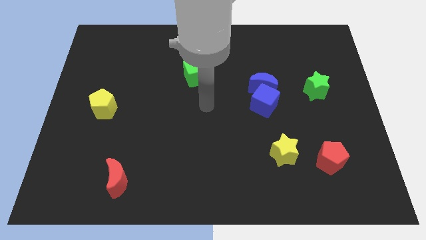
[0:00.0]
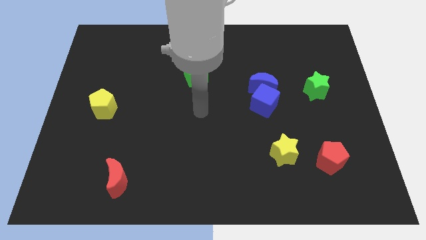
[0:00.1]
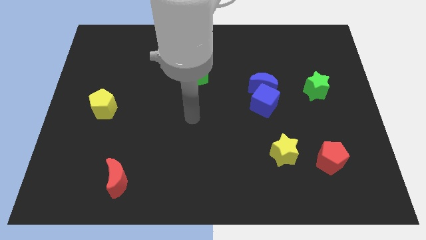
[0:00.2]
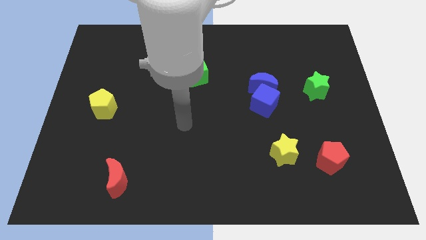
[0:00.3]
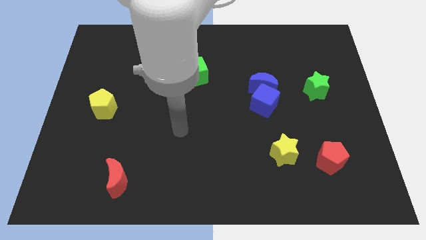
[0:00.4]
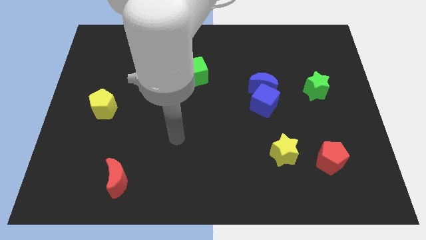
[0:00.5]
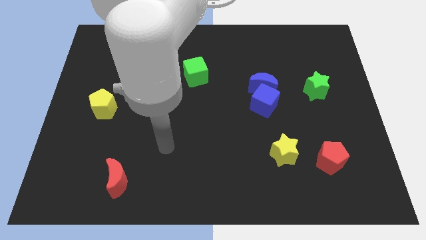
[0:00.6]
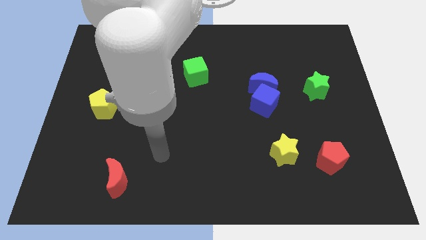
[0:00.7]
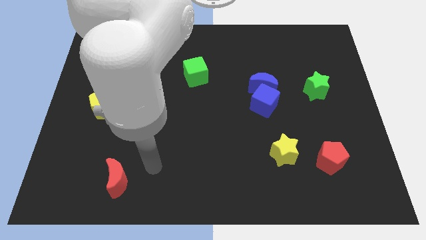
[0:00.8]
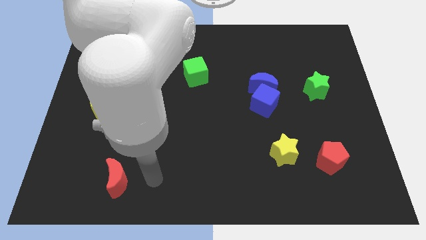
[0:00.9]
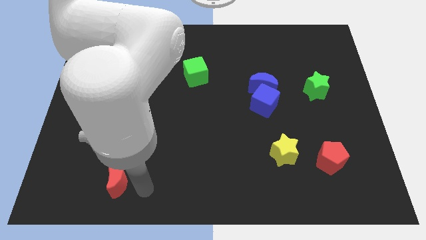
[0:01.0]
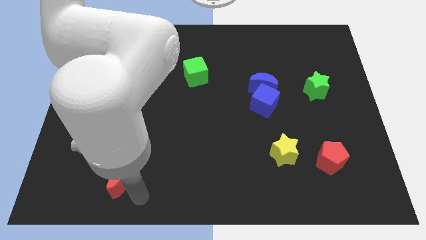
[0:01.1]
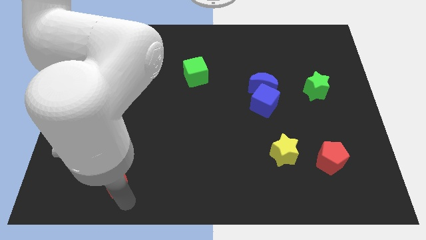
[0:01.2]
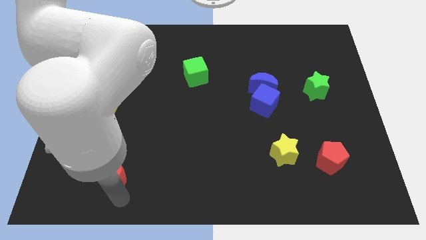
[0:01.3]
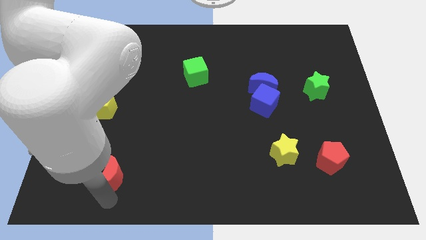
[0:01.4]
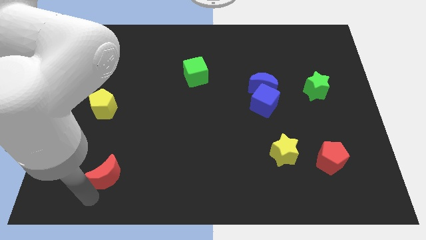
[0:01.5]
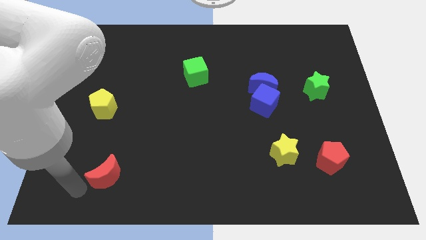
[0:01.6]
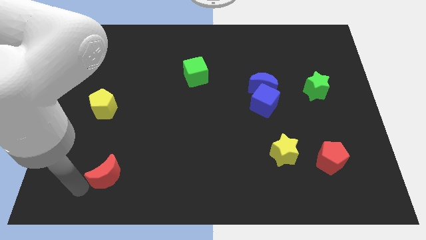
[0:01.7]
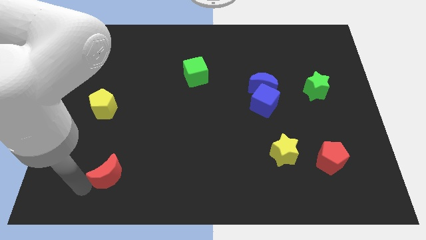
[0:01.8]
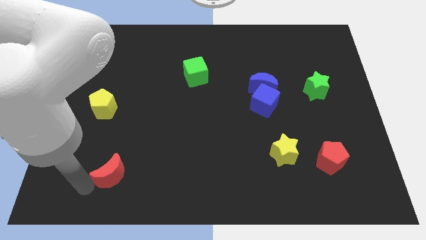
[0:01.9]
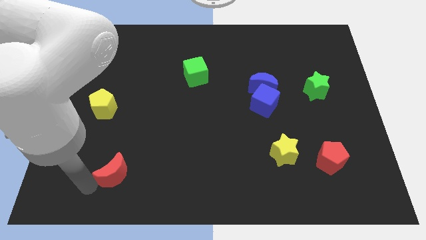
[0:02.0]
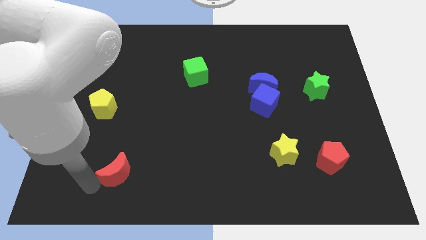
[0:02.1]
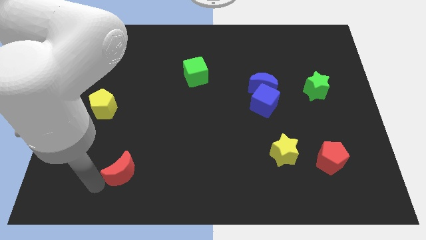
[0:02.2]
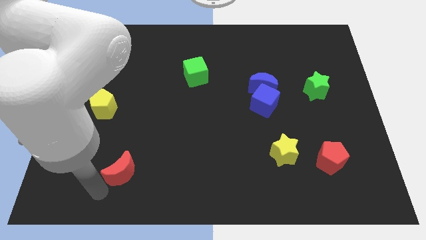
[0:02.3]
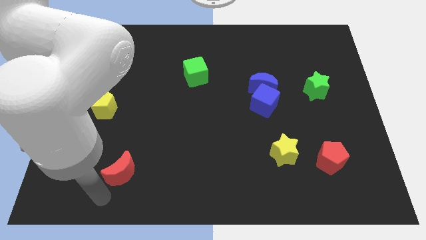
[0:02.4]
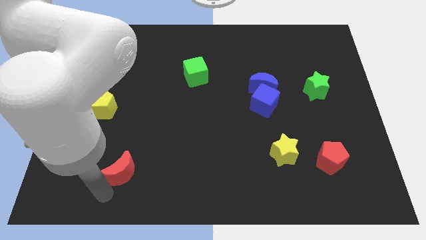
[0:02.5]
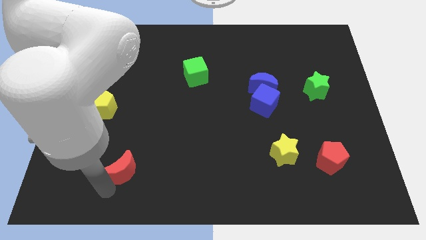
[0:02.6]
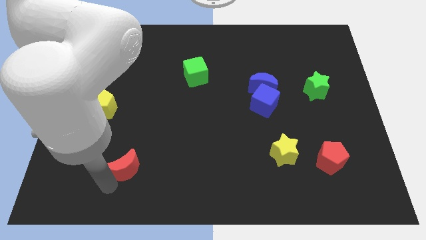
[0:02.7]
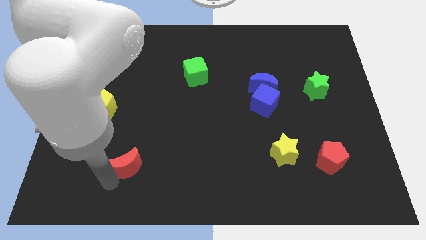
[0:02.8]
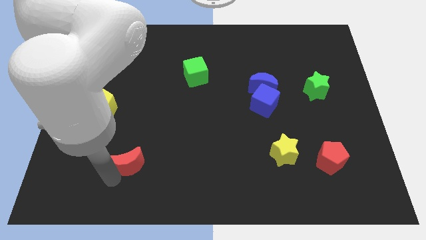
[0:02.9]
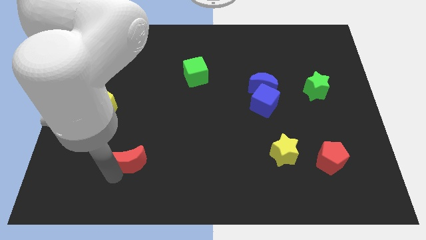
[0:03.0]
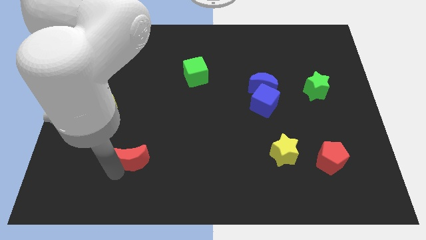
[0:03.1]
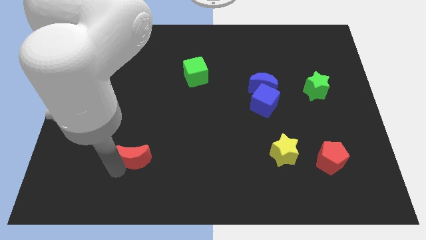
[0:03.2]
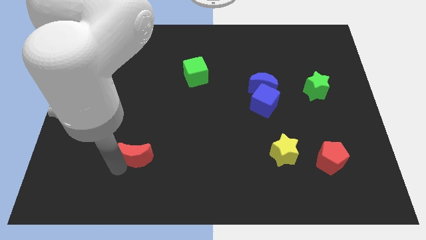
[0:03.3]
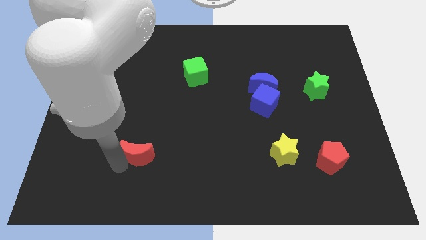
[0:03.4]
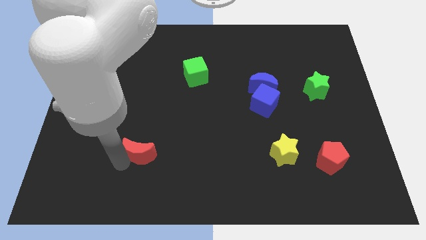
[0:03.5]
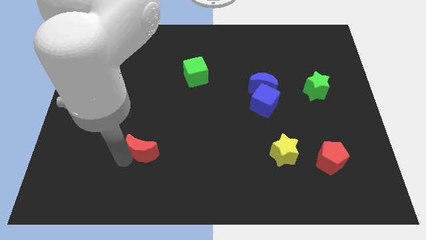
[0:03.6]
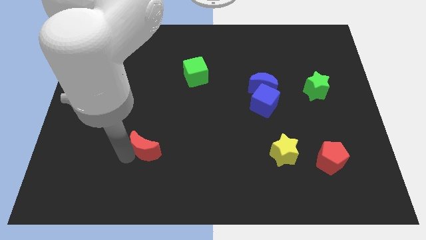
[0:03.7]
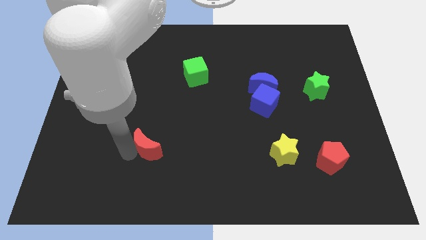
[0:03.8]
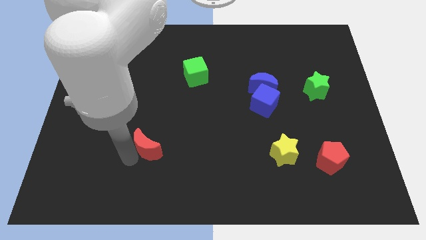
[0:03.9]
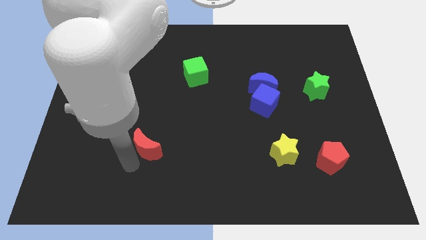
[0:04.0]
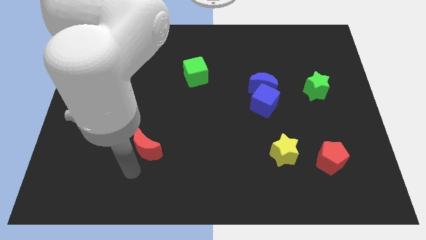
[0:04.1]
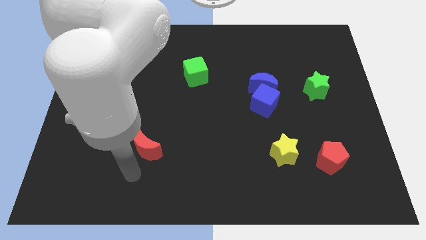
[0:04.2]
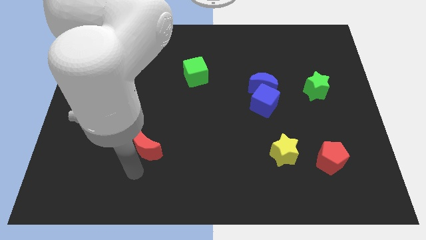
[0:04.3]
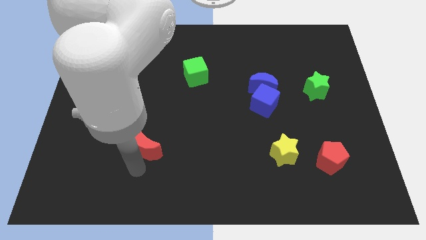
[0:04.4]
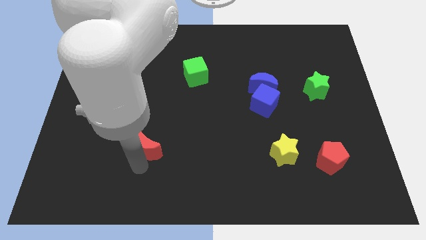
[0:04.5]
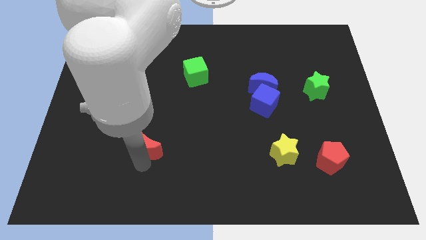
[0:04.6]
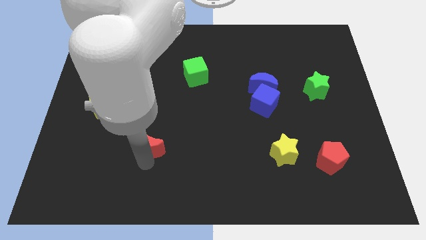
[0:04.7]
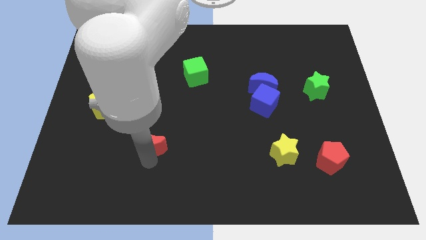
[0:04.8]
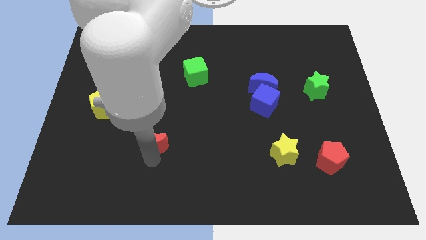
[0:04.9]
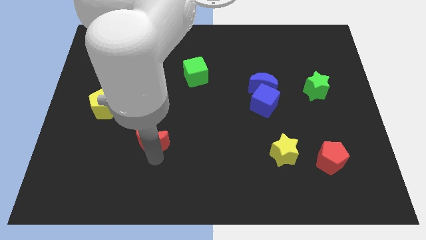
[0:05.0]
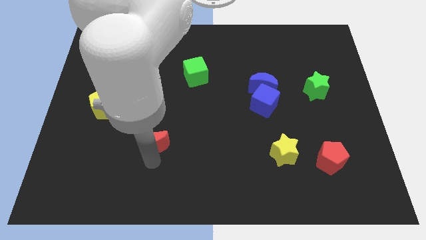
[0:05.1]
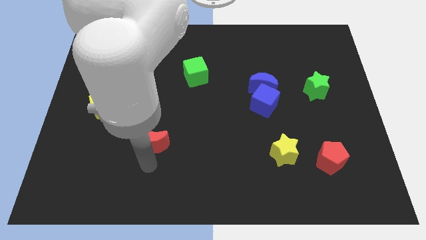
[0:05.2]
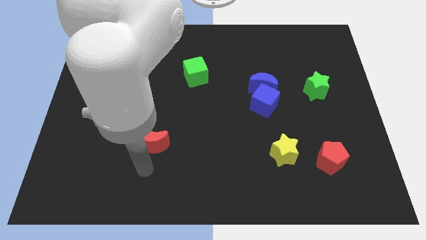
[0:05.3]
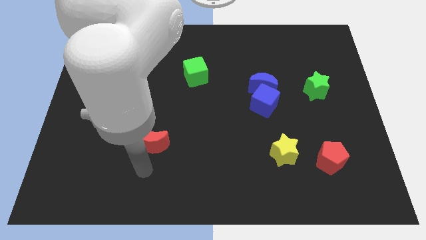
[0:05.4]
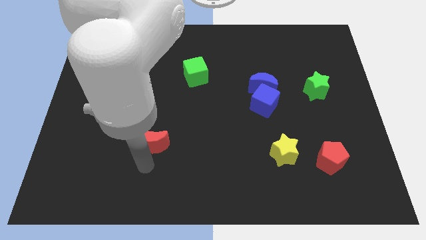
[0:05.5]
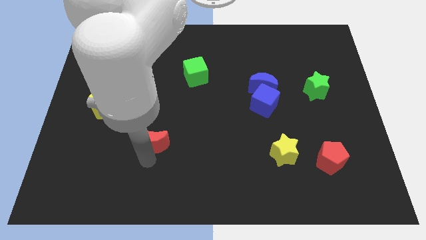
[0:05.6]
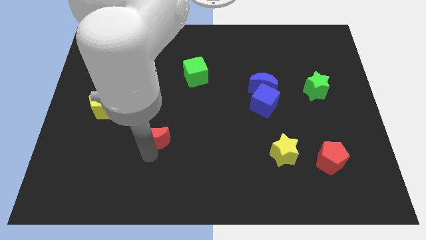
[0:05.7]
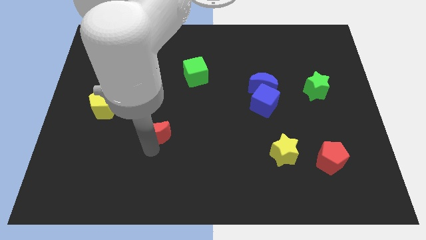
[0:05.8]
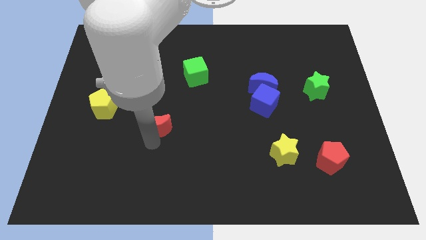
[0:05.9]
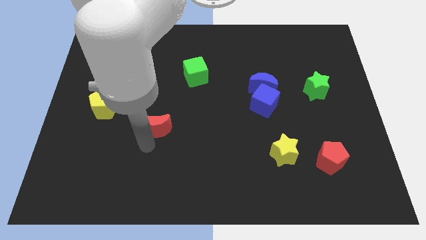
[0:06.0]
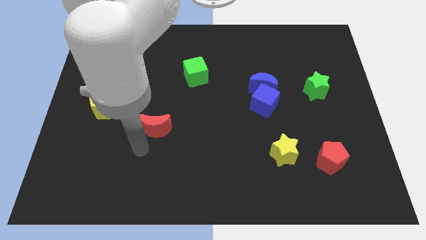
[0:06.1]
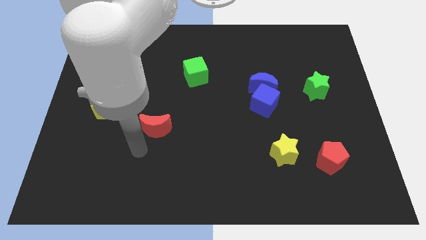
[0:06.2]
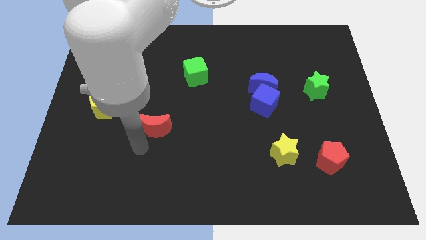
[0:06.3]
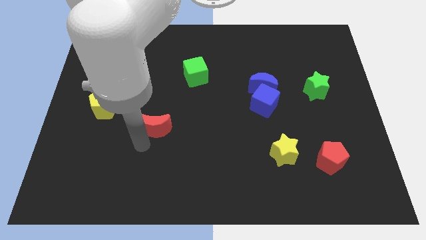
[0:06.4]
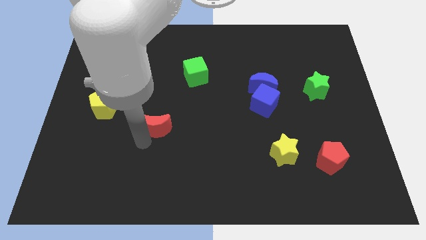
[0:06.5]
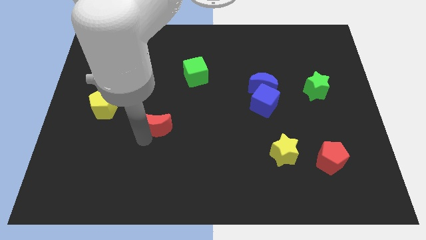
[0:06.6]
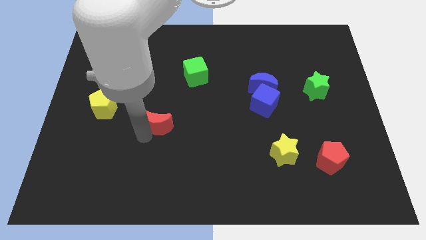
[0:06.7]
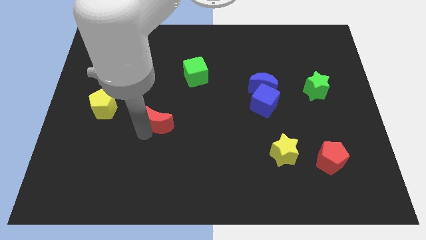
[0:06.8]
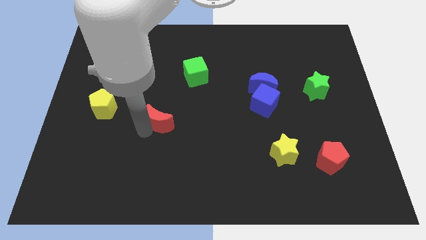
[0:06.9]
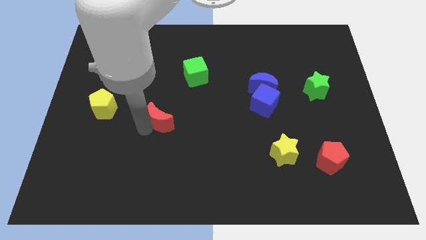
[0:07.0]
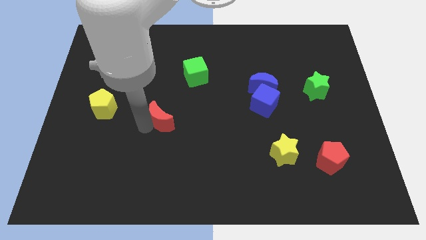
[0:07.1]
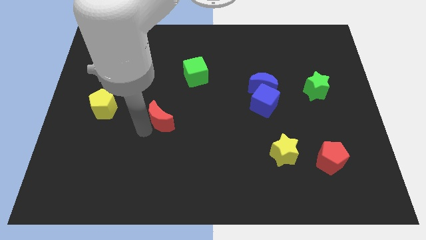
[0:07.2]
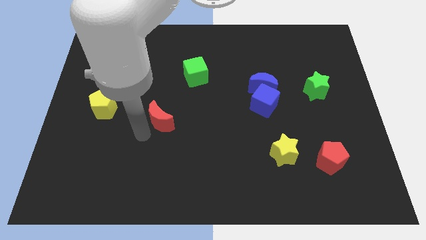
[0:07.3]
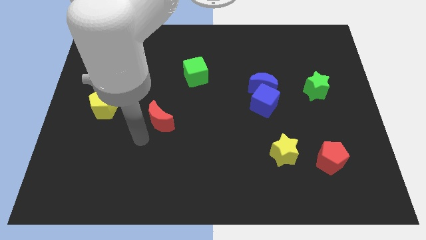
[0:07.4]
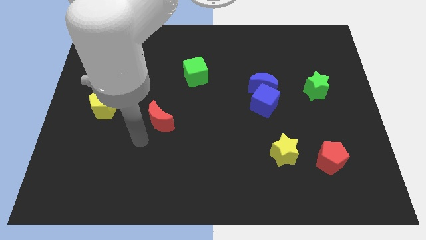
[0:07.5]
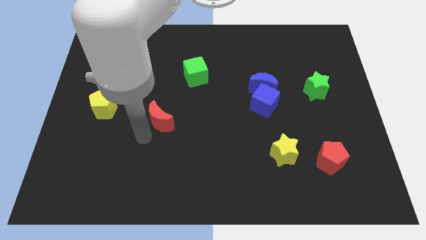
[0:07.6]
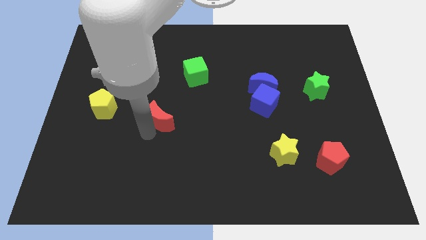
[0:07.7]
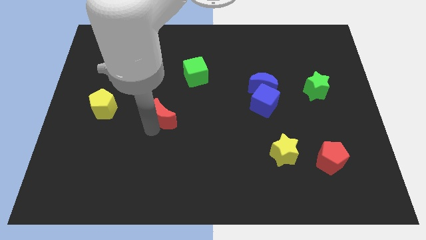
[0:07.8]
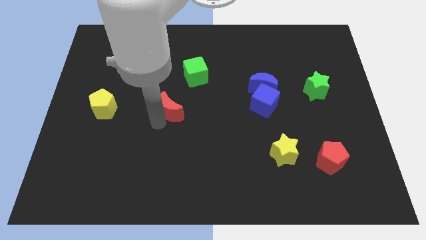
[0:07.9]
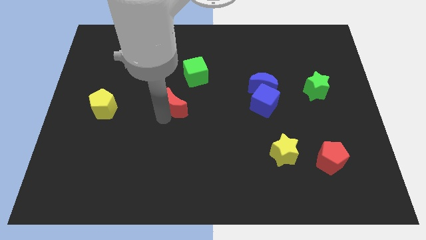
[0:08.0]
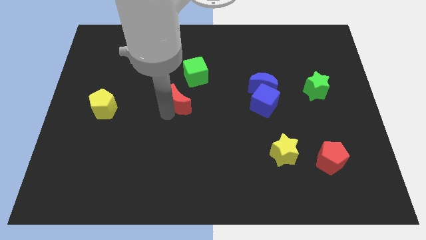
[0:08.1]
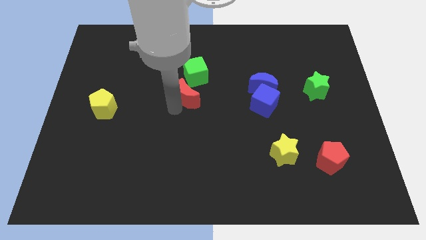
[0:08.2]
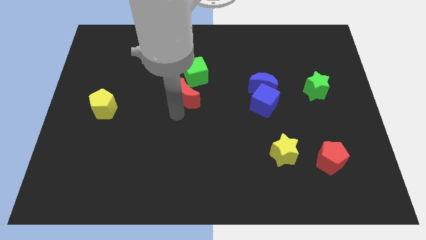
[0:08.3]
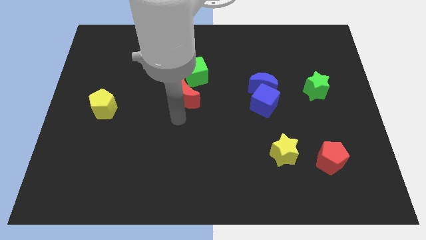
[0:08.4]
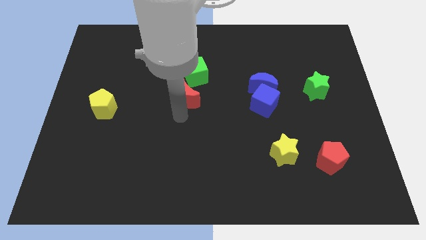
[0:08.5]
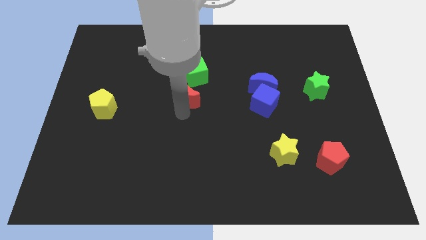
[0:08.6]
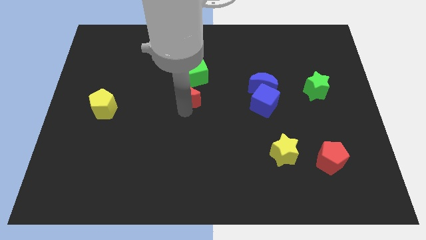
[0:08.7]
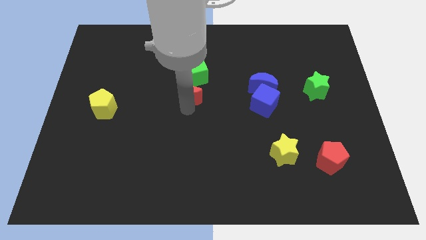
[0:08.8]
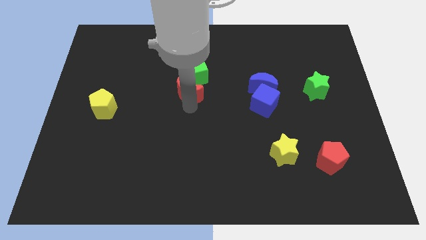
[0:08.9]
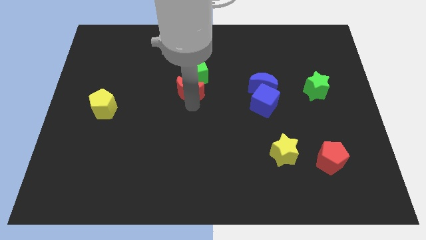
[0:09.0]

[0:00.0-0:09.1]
slide the red moon next to the green cube
